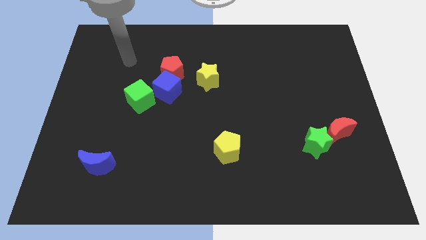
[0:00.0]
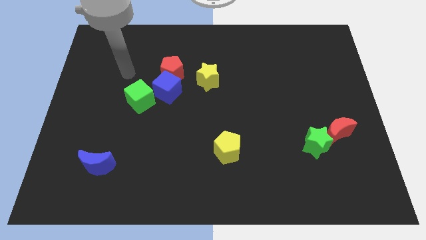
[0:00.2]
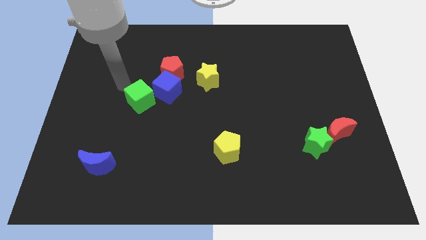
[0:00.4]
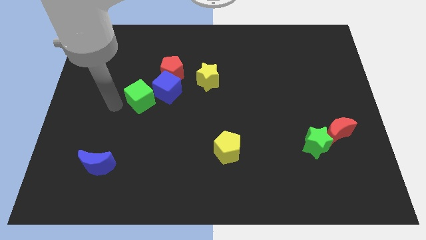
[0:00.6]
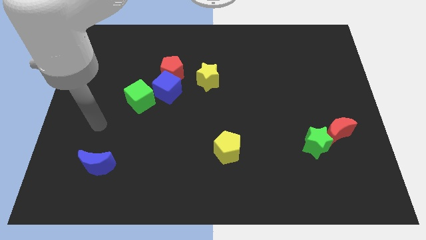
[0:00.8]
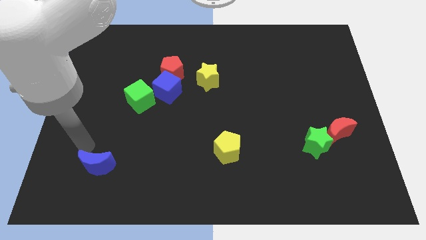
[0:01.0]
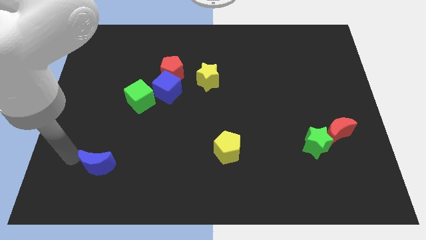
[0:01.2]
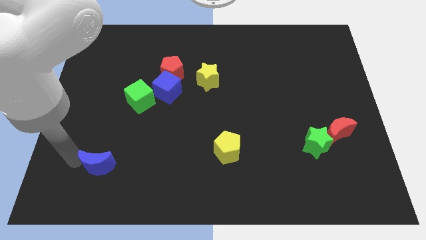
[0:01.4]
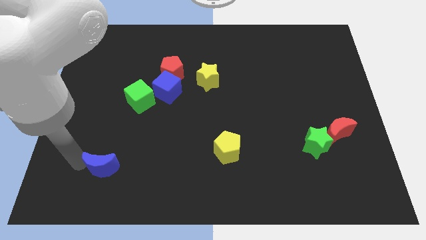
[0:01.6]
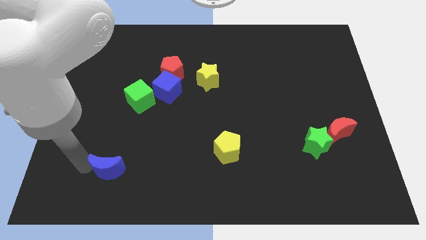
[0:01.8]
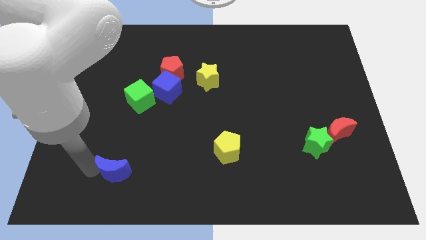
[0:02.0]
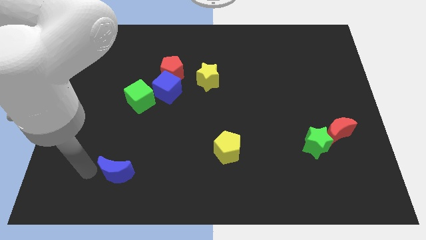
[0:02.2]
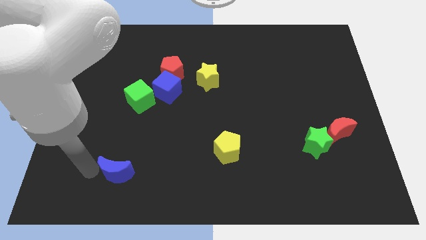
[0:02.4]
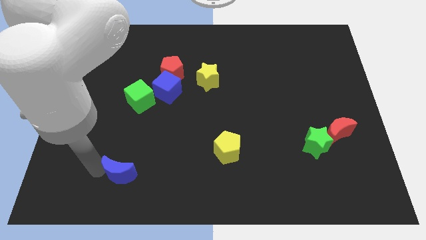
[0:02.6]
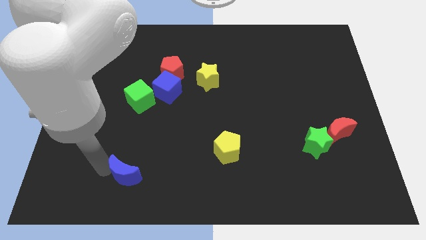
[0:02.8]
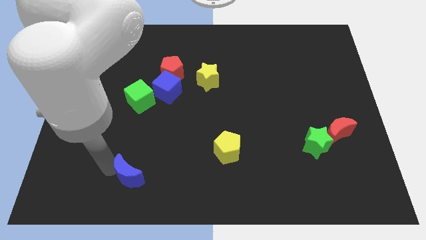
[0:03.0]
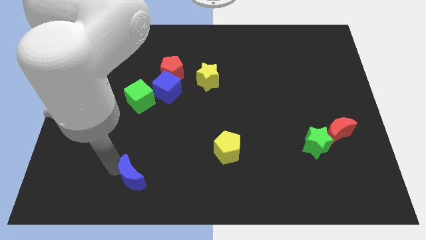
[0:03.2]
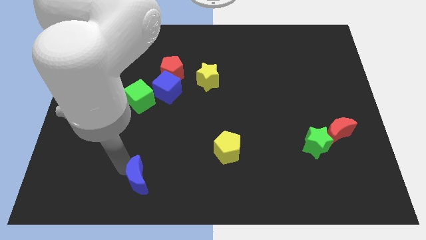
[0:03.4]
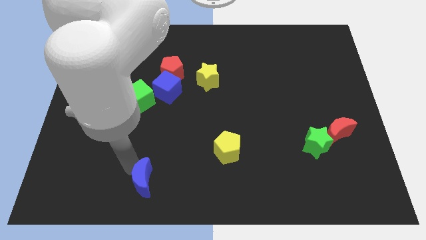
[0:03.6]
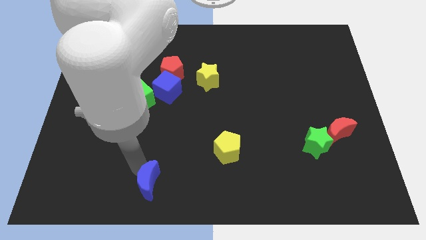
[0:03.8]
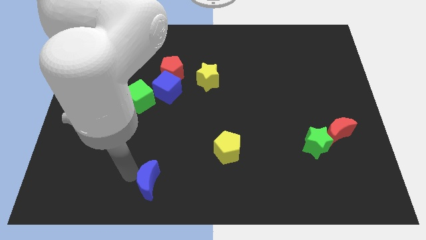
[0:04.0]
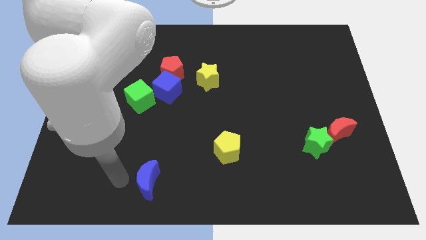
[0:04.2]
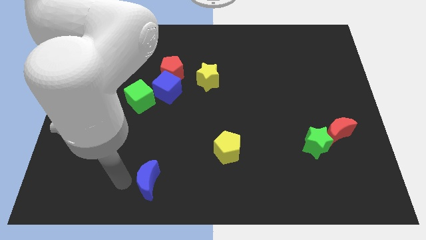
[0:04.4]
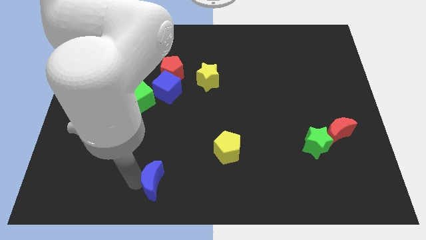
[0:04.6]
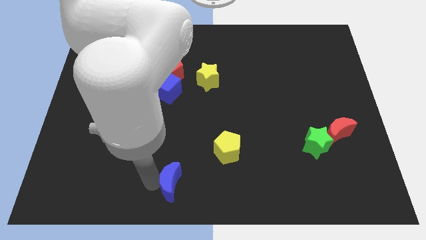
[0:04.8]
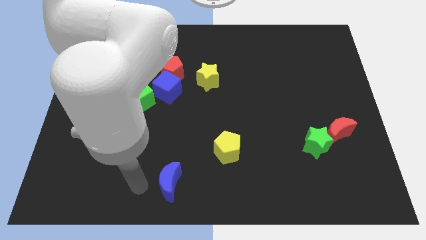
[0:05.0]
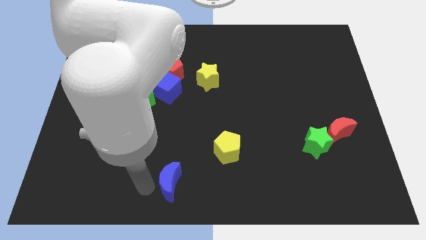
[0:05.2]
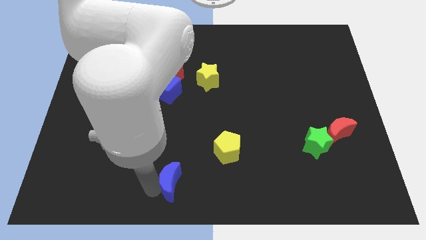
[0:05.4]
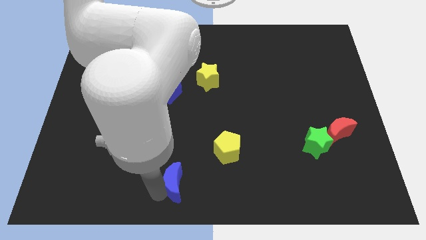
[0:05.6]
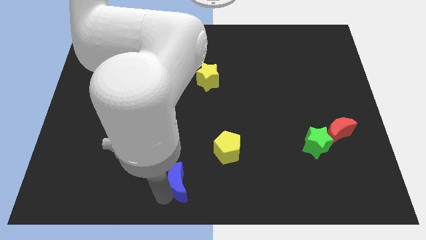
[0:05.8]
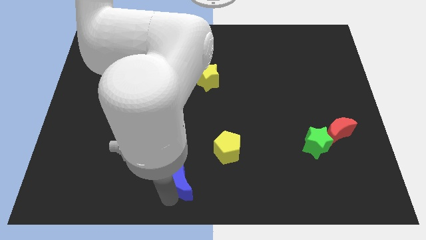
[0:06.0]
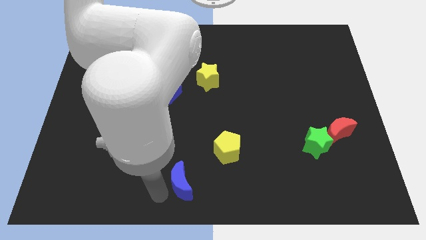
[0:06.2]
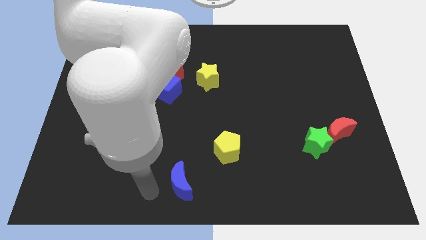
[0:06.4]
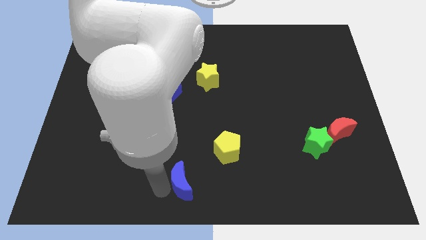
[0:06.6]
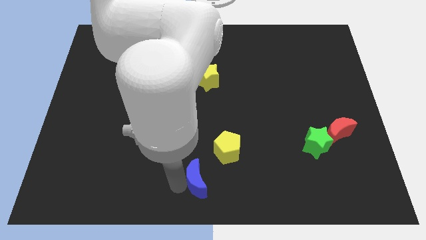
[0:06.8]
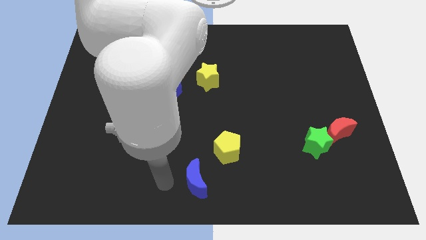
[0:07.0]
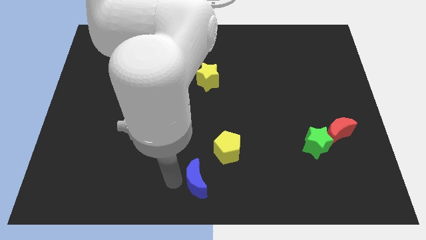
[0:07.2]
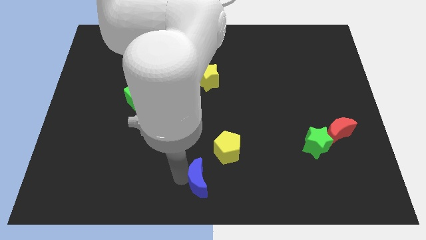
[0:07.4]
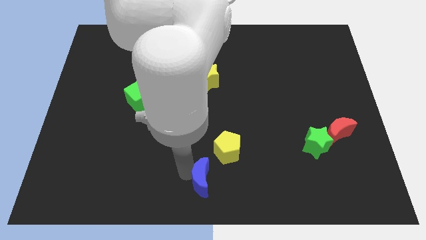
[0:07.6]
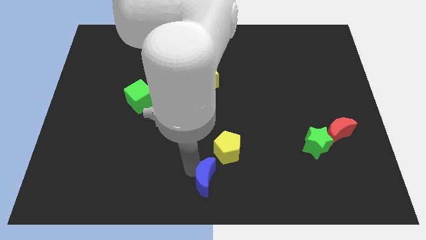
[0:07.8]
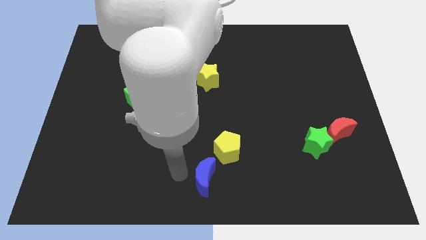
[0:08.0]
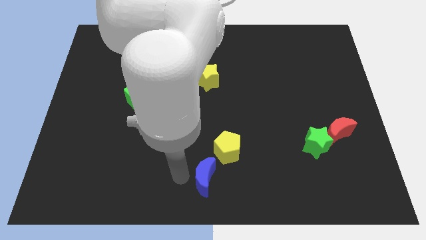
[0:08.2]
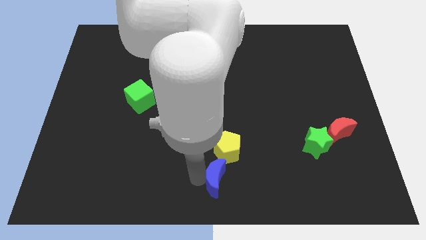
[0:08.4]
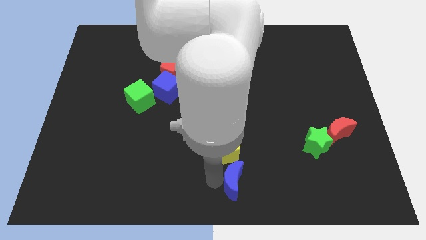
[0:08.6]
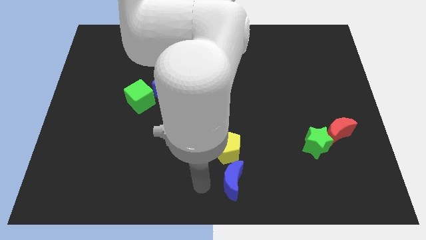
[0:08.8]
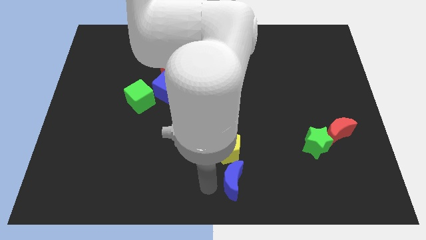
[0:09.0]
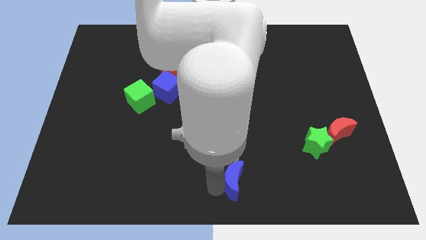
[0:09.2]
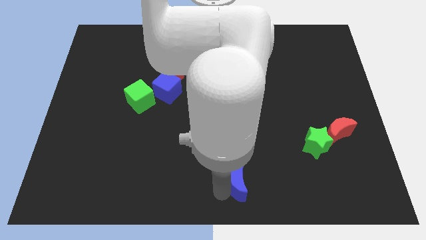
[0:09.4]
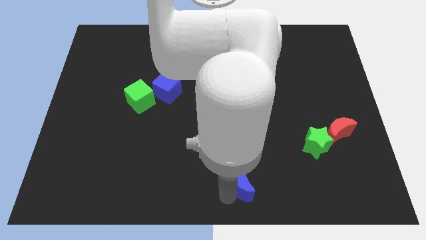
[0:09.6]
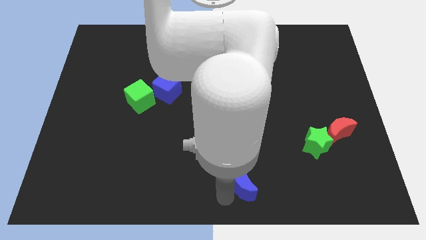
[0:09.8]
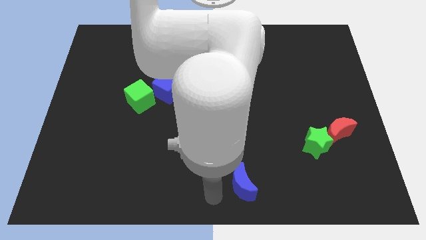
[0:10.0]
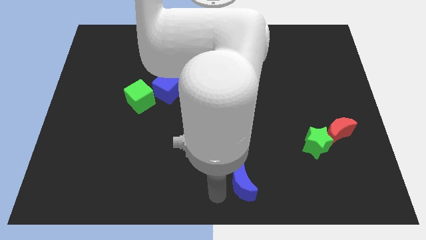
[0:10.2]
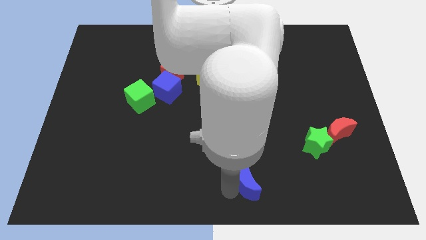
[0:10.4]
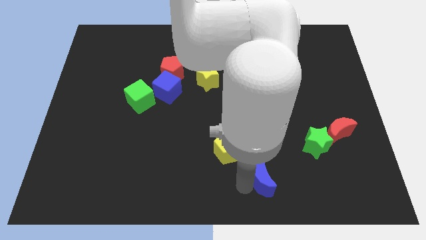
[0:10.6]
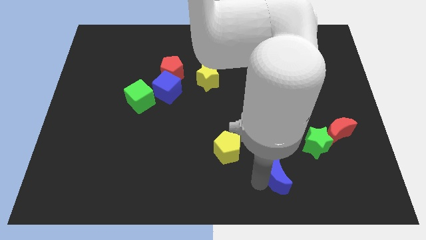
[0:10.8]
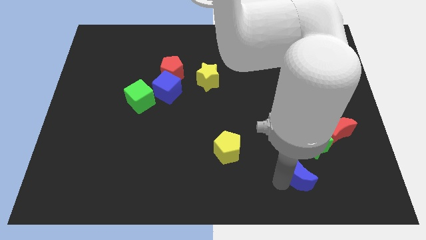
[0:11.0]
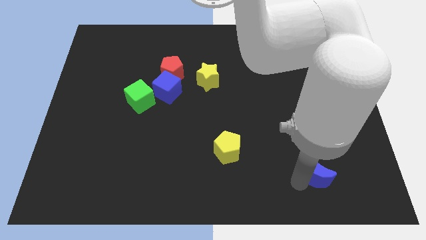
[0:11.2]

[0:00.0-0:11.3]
slide the blue moon diagonally down and to the left of the red moon

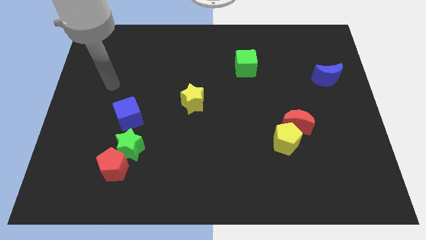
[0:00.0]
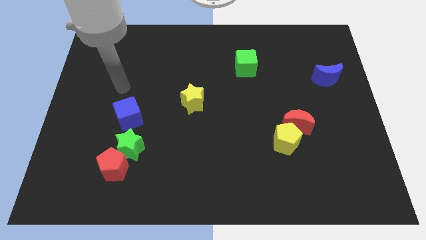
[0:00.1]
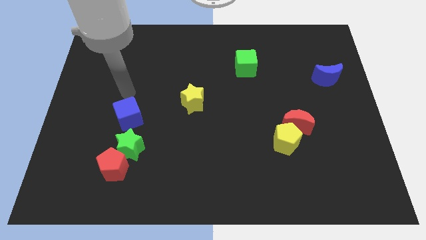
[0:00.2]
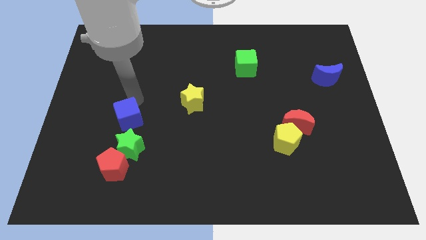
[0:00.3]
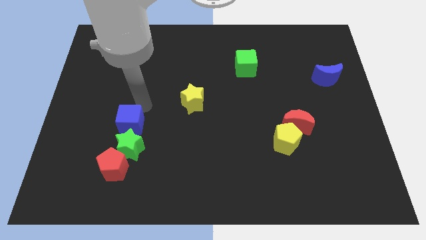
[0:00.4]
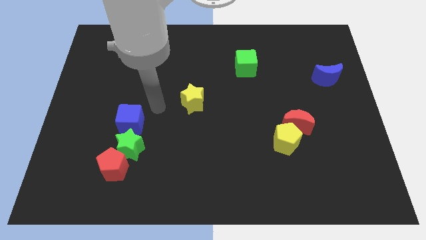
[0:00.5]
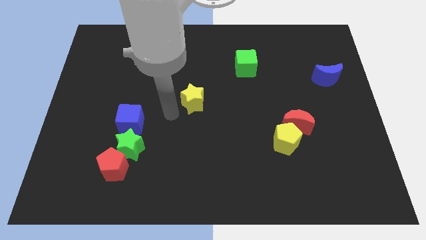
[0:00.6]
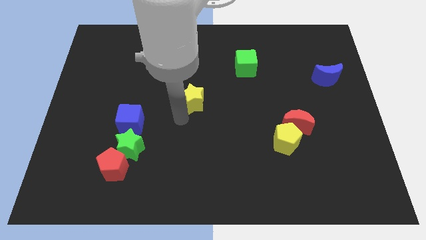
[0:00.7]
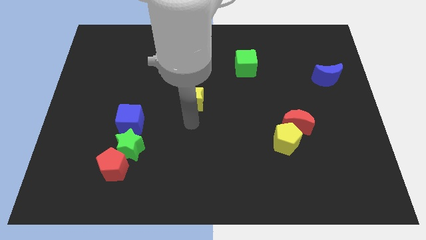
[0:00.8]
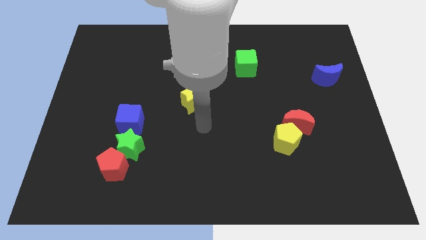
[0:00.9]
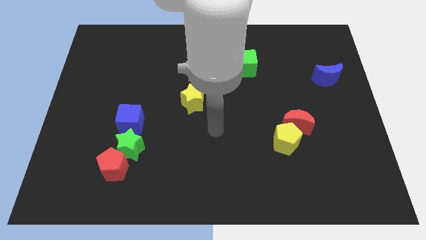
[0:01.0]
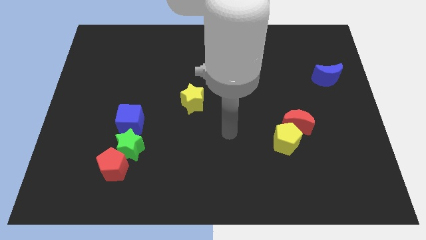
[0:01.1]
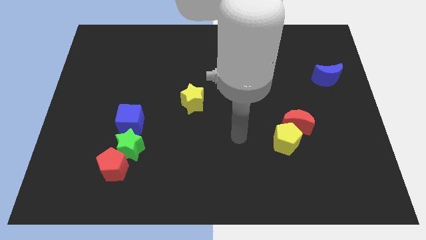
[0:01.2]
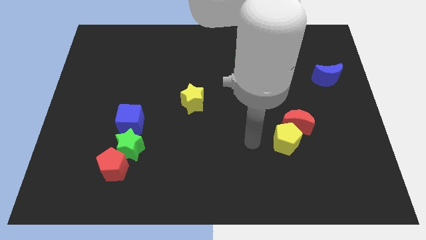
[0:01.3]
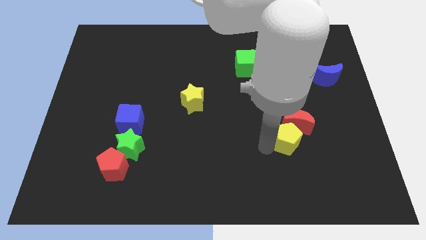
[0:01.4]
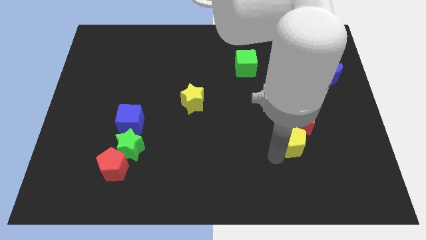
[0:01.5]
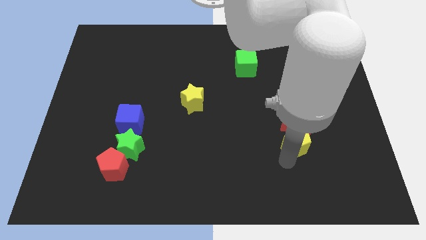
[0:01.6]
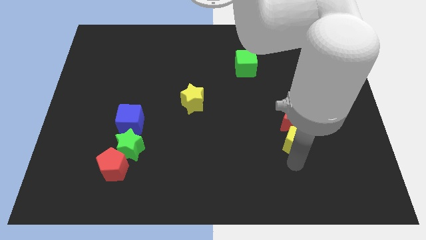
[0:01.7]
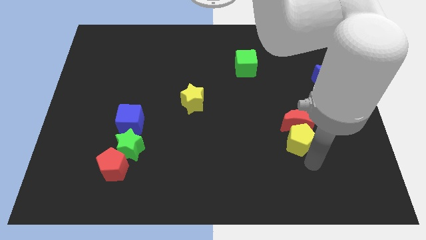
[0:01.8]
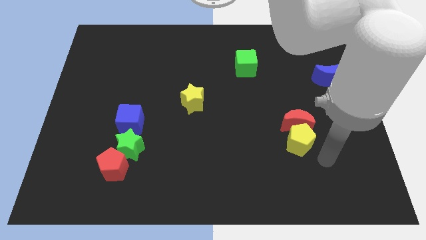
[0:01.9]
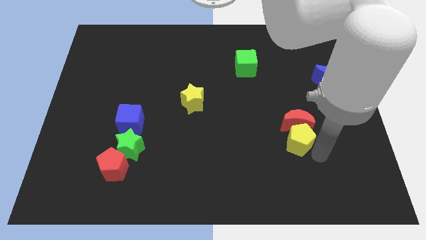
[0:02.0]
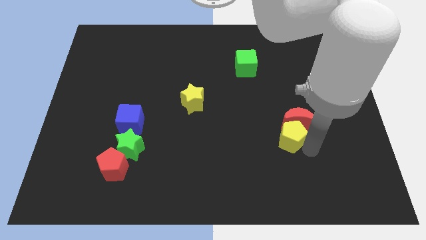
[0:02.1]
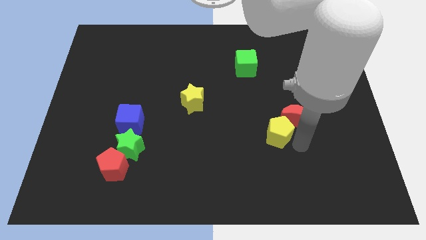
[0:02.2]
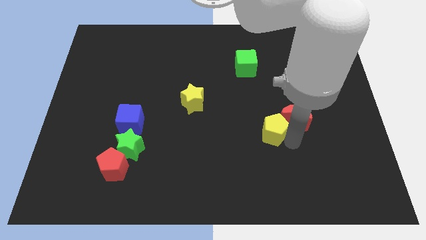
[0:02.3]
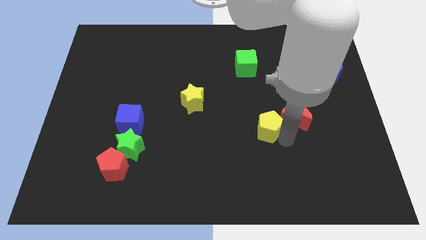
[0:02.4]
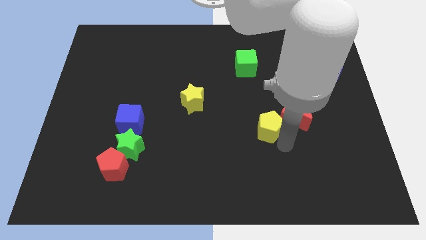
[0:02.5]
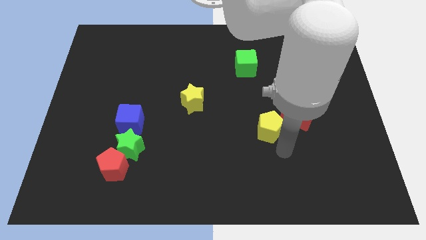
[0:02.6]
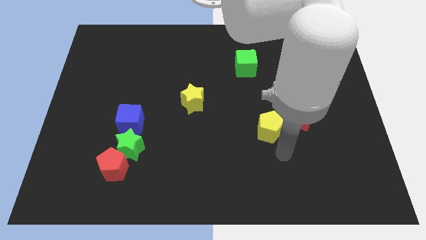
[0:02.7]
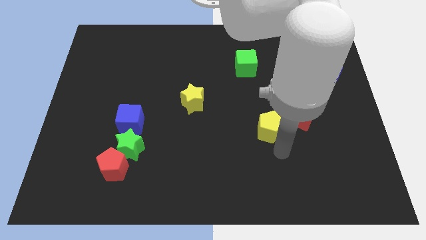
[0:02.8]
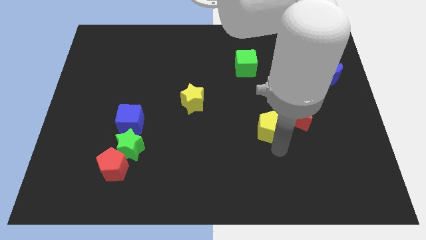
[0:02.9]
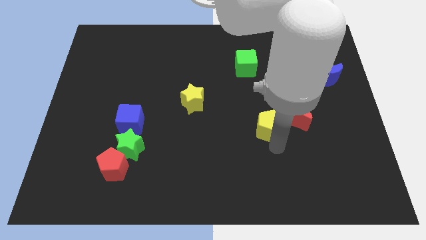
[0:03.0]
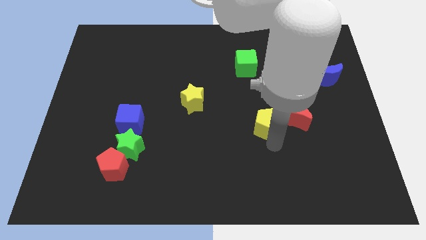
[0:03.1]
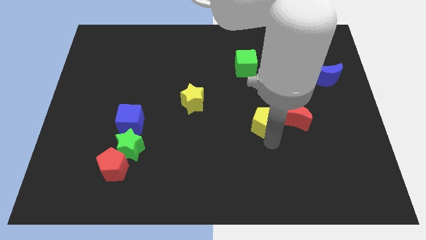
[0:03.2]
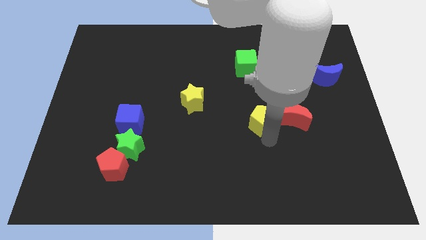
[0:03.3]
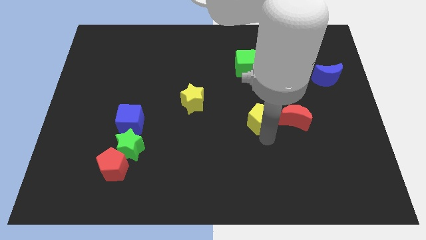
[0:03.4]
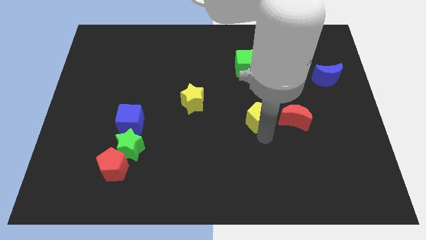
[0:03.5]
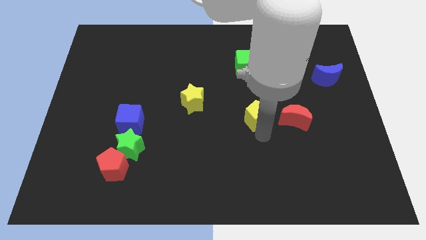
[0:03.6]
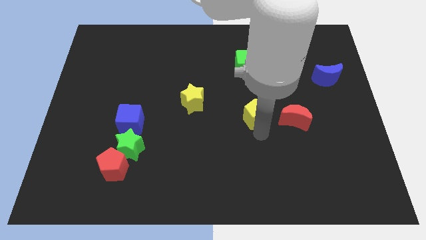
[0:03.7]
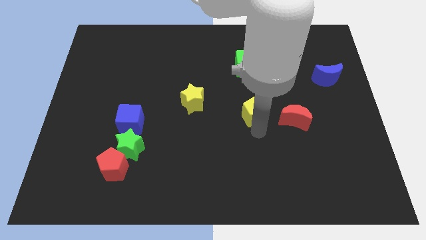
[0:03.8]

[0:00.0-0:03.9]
put the yellow pentagon below the green cube
